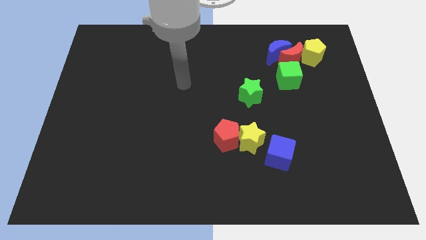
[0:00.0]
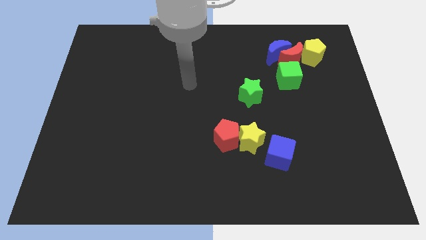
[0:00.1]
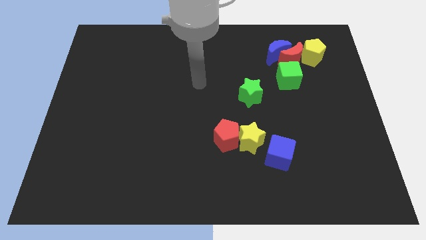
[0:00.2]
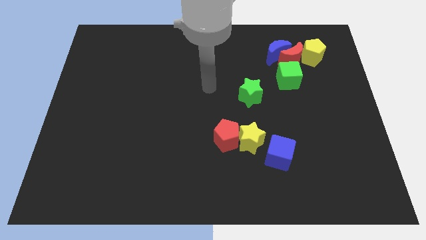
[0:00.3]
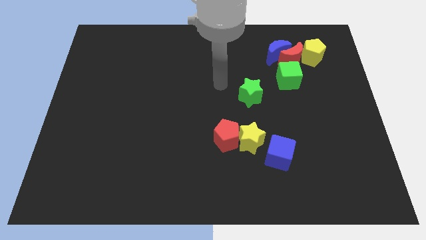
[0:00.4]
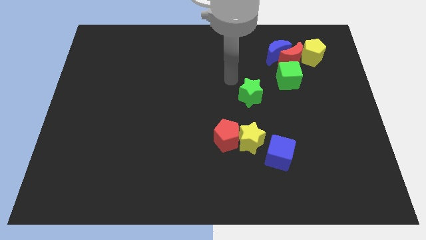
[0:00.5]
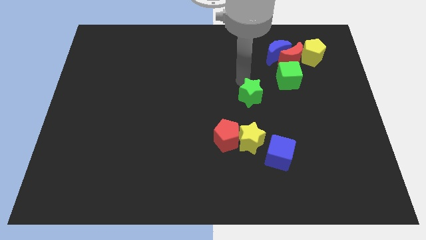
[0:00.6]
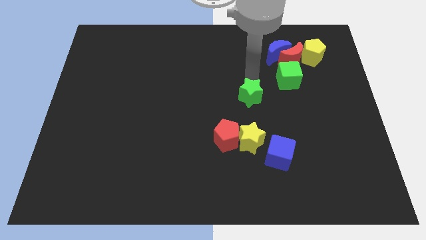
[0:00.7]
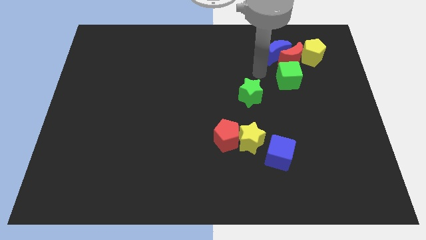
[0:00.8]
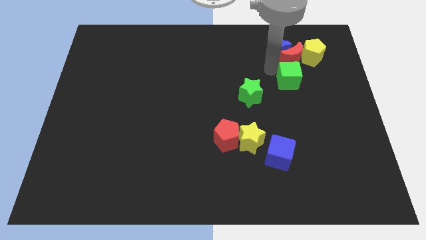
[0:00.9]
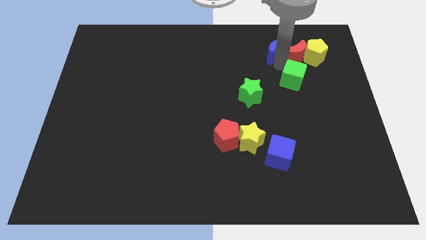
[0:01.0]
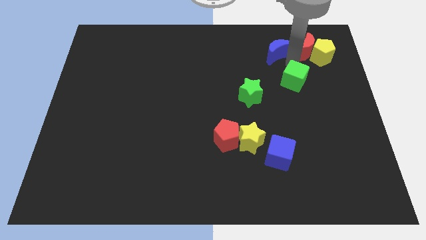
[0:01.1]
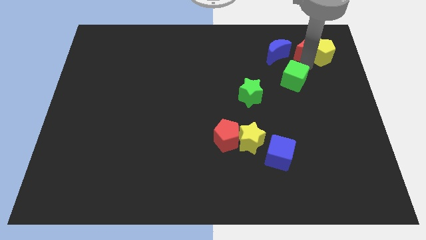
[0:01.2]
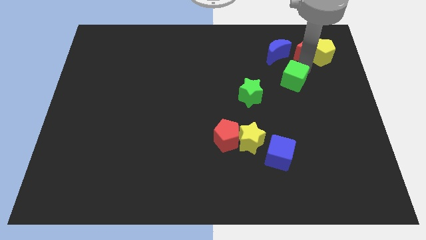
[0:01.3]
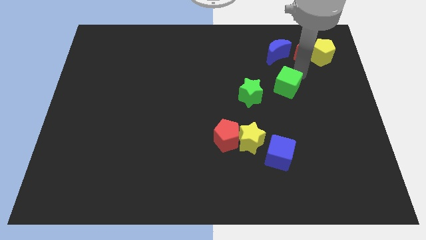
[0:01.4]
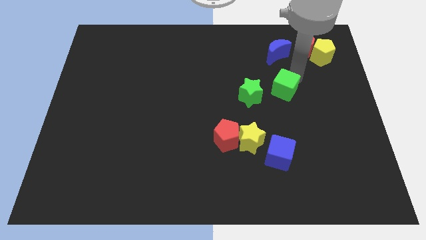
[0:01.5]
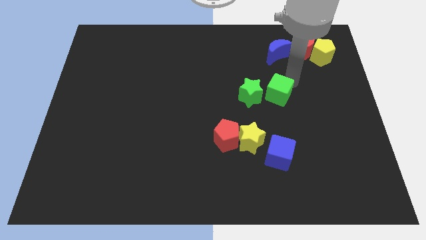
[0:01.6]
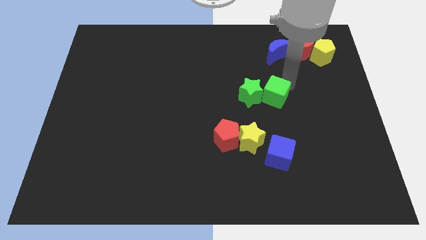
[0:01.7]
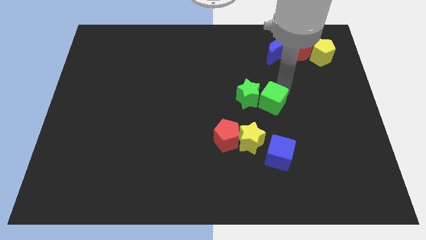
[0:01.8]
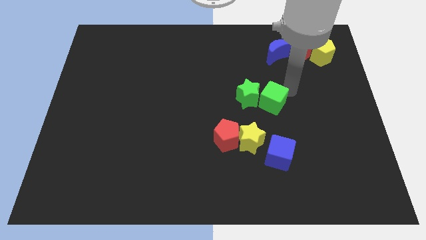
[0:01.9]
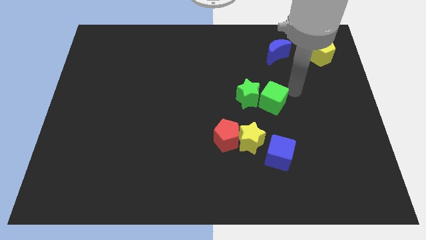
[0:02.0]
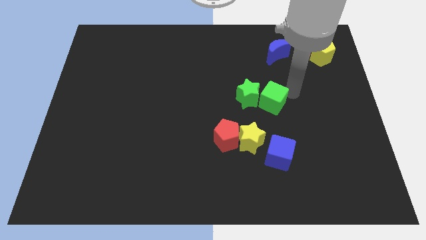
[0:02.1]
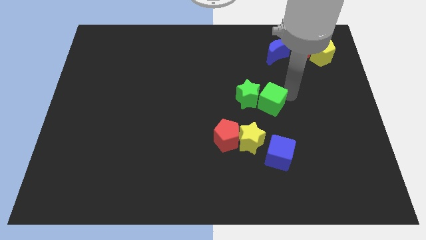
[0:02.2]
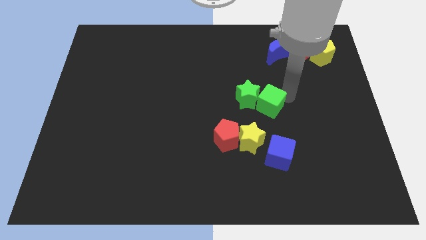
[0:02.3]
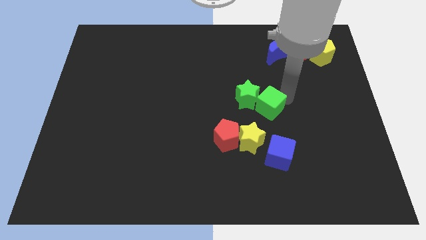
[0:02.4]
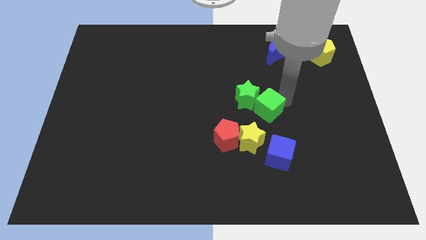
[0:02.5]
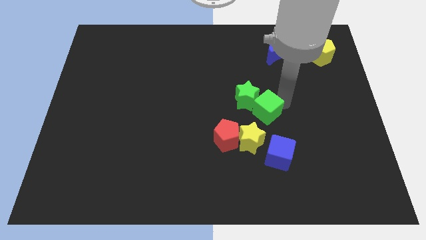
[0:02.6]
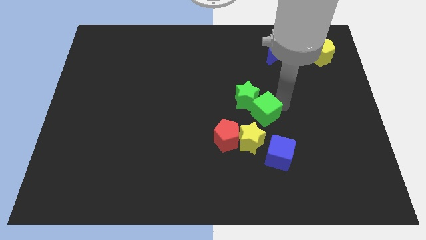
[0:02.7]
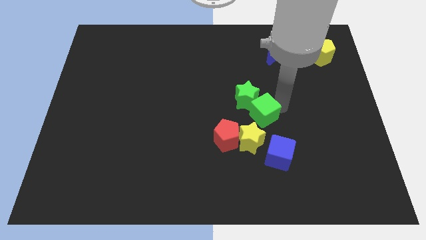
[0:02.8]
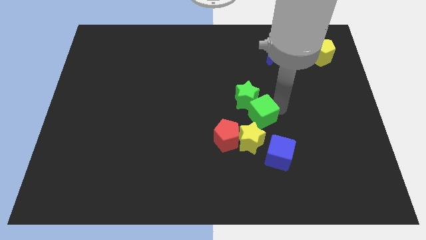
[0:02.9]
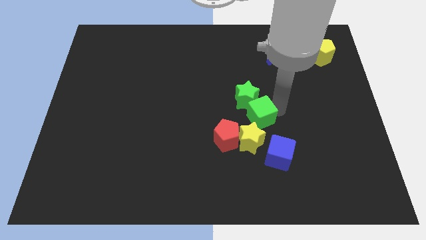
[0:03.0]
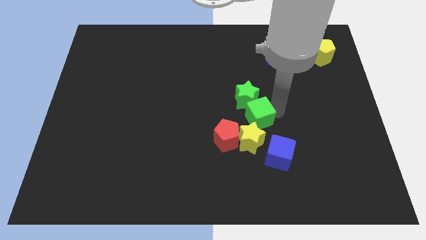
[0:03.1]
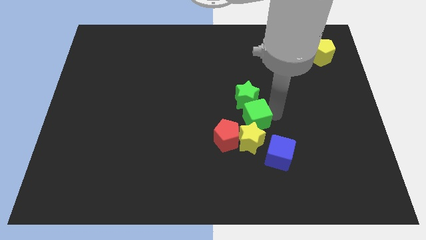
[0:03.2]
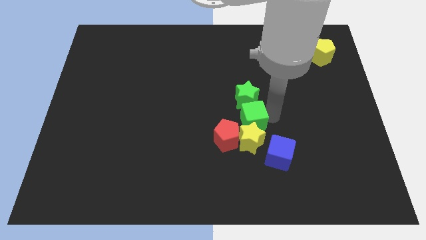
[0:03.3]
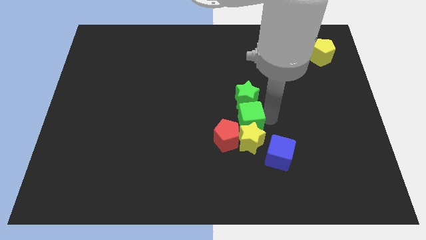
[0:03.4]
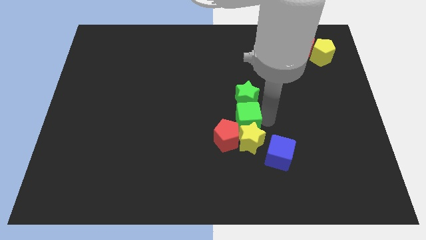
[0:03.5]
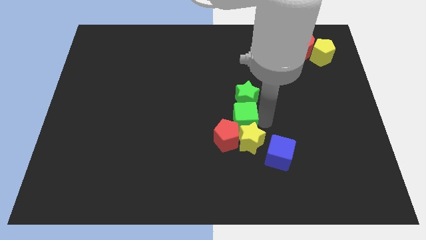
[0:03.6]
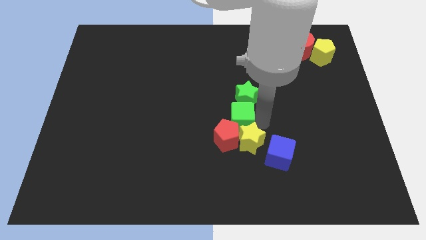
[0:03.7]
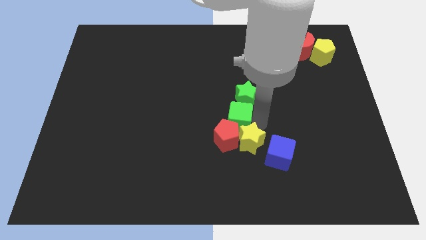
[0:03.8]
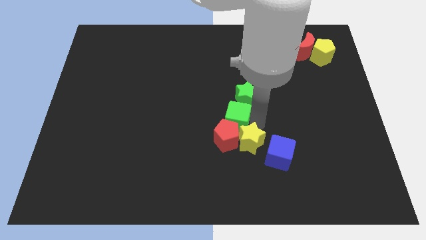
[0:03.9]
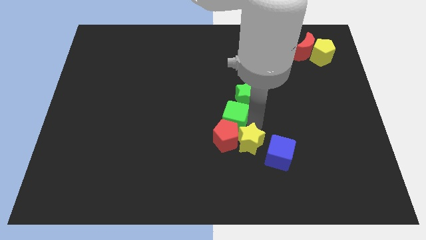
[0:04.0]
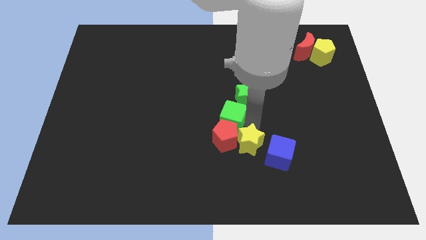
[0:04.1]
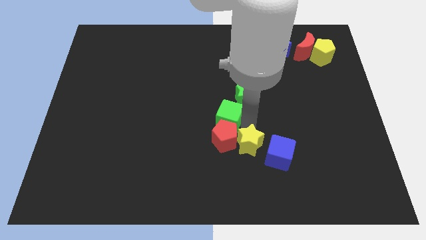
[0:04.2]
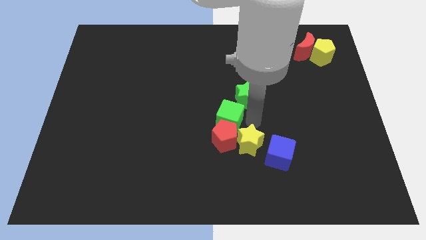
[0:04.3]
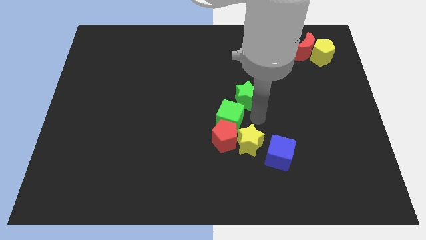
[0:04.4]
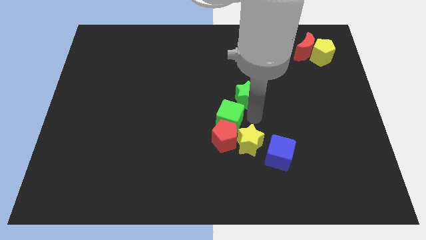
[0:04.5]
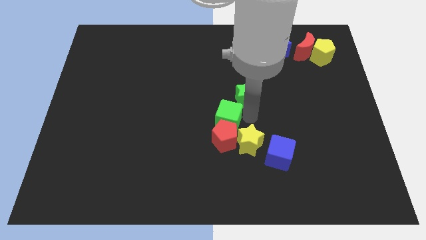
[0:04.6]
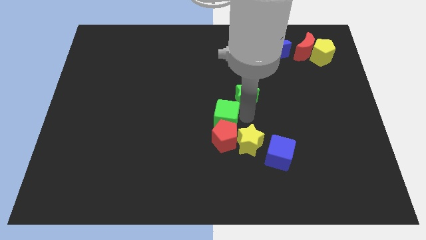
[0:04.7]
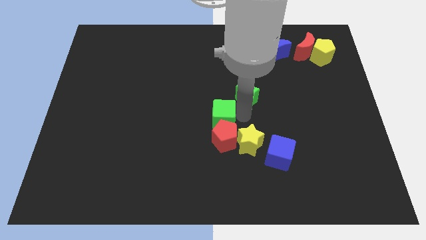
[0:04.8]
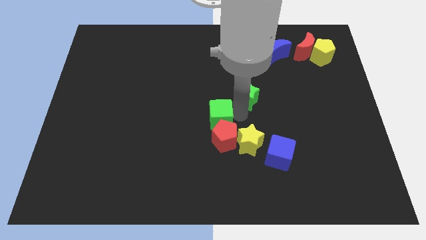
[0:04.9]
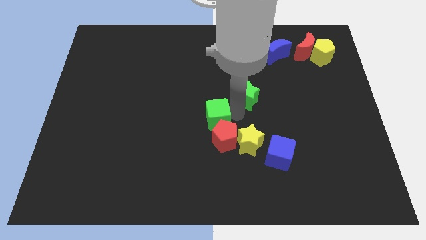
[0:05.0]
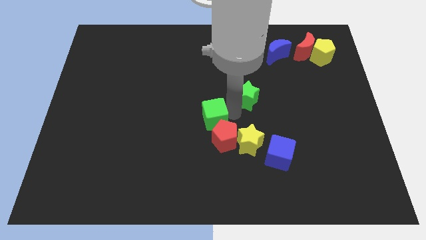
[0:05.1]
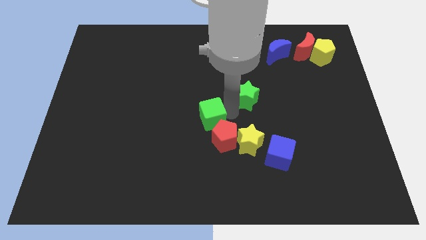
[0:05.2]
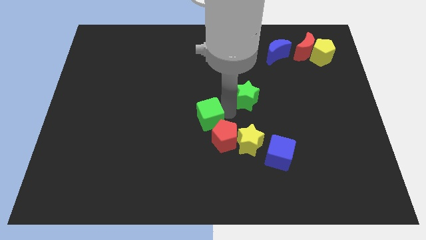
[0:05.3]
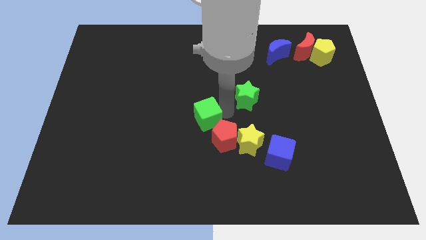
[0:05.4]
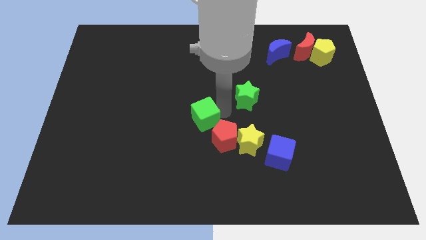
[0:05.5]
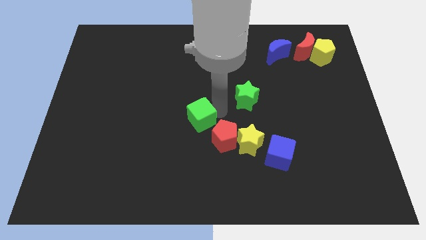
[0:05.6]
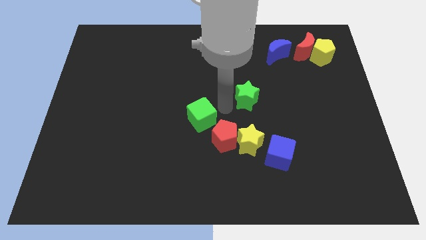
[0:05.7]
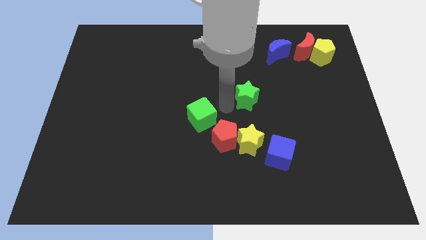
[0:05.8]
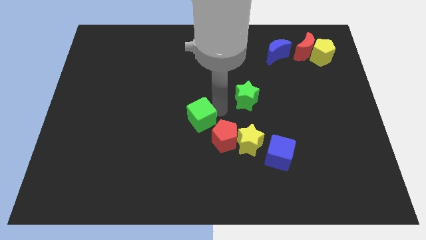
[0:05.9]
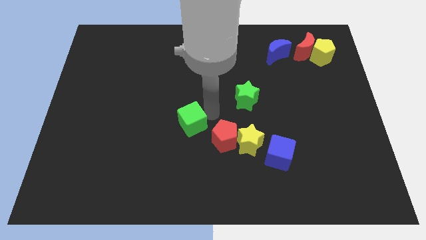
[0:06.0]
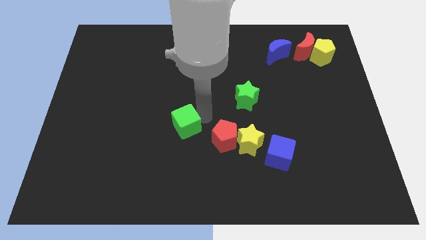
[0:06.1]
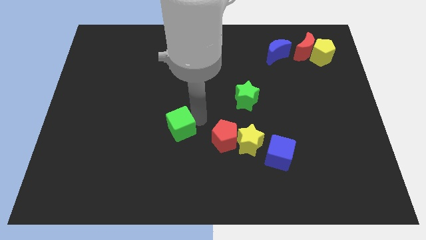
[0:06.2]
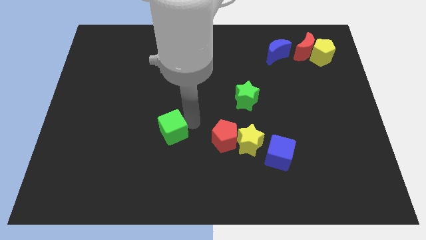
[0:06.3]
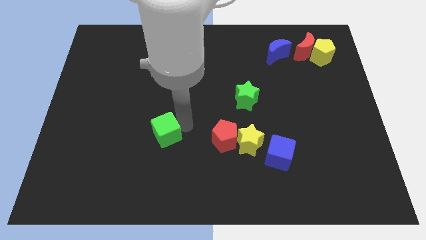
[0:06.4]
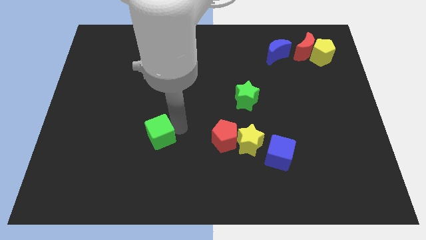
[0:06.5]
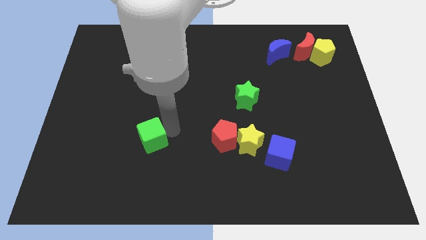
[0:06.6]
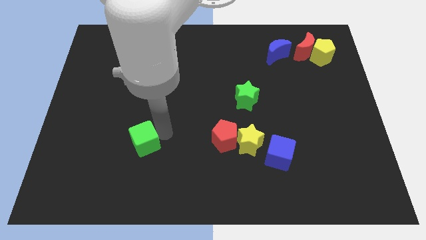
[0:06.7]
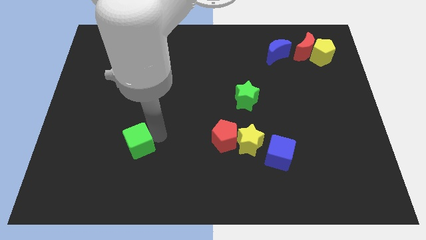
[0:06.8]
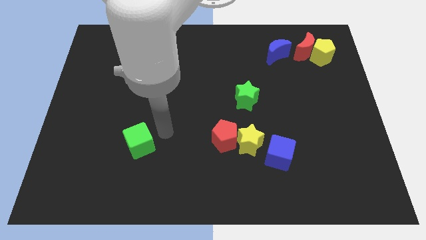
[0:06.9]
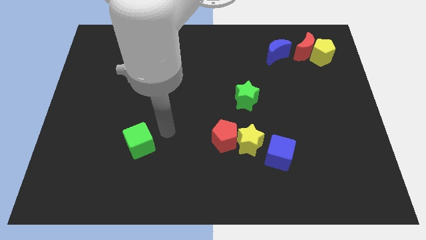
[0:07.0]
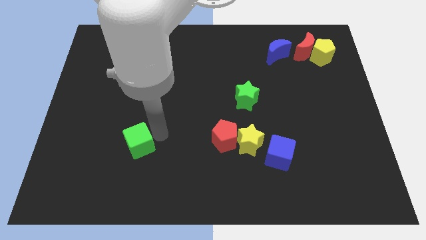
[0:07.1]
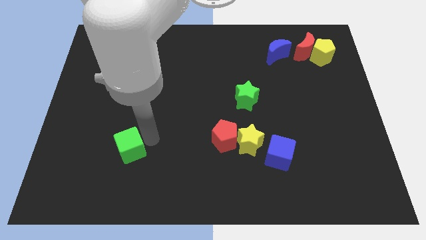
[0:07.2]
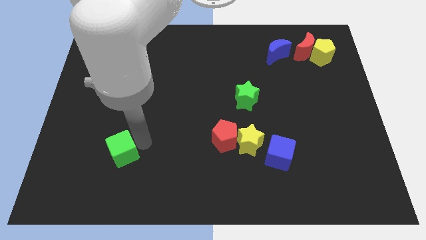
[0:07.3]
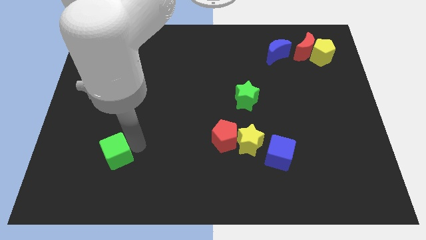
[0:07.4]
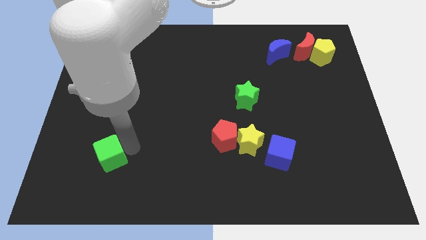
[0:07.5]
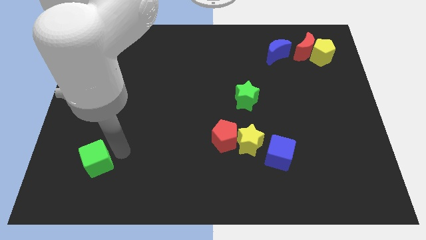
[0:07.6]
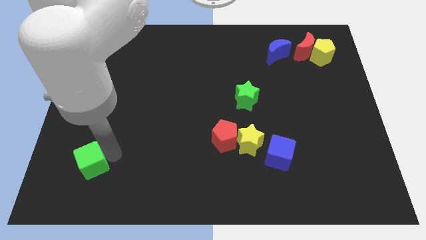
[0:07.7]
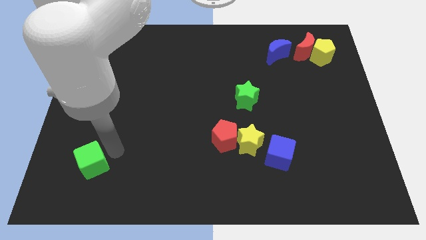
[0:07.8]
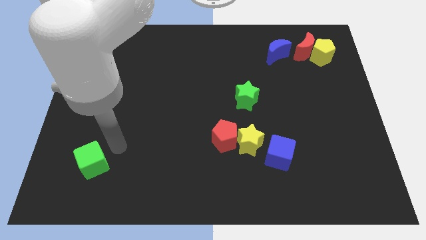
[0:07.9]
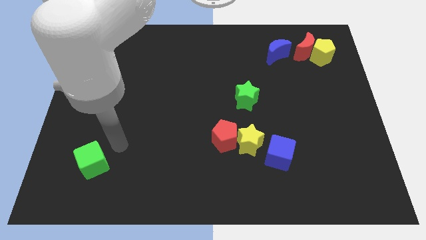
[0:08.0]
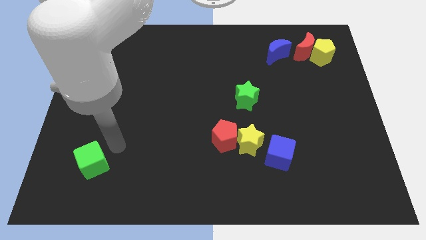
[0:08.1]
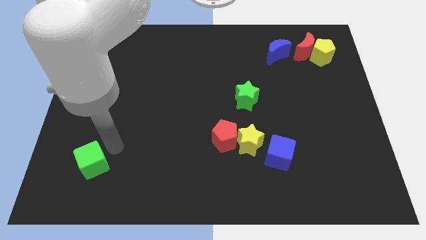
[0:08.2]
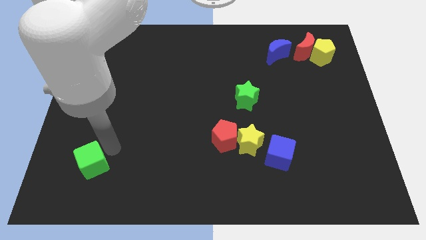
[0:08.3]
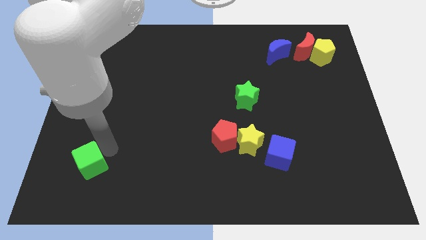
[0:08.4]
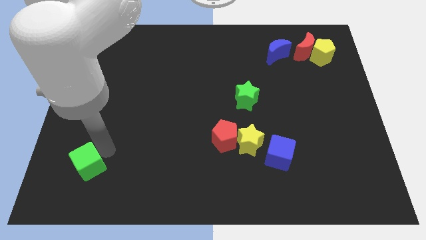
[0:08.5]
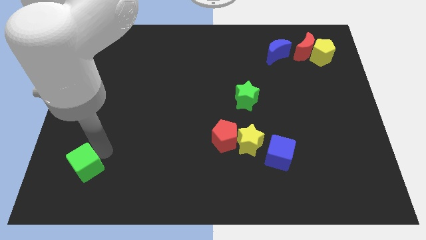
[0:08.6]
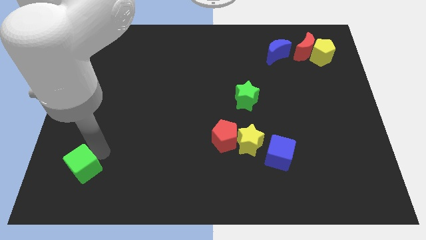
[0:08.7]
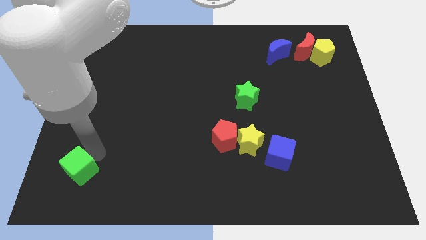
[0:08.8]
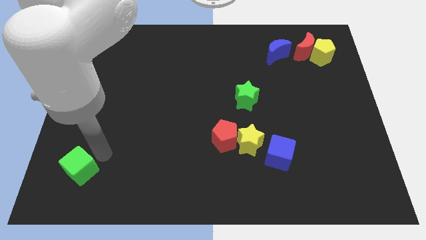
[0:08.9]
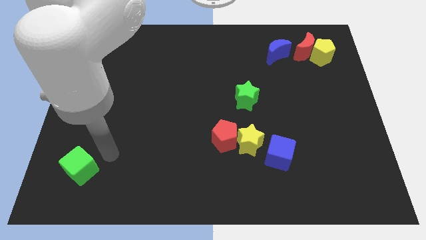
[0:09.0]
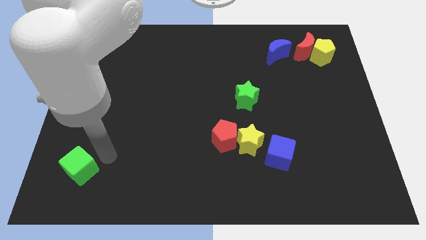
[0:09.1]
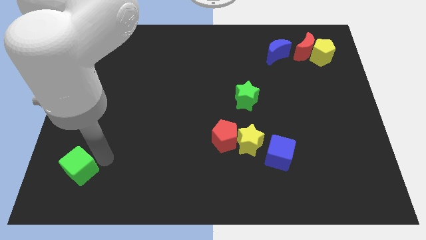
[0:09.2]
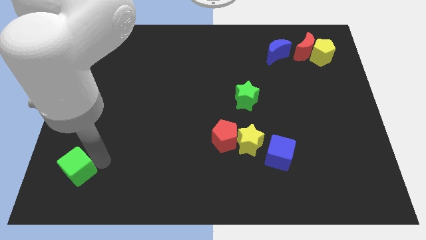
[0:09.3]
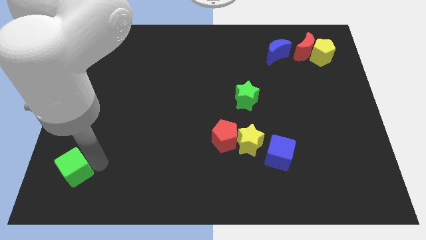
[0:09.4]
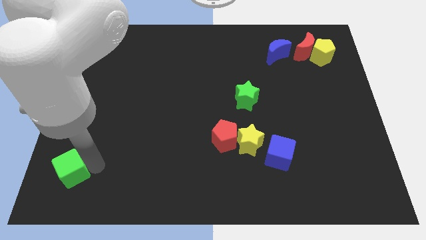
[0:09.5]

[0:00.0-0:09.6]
push the green cube to the bottom left of the board
